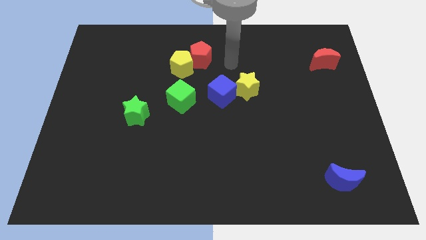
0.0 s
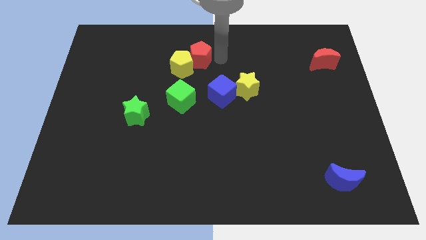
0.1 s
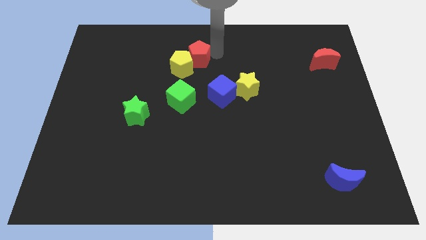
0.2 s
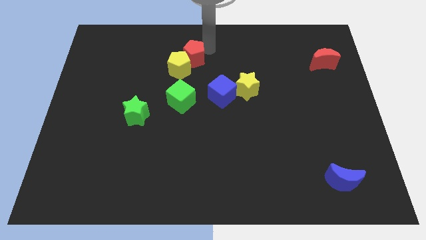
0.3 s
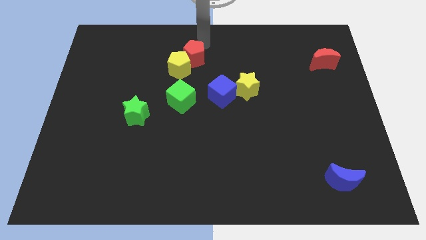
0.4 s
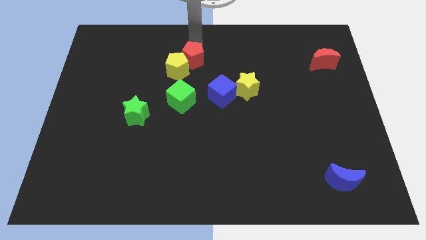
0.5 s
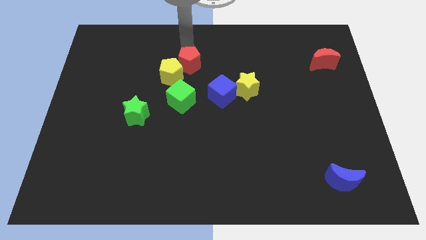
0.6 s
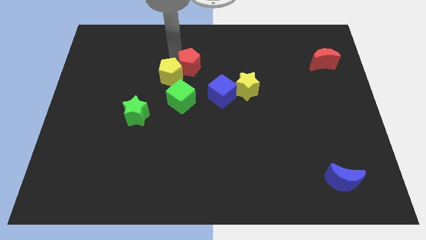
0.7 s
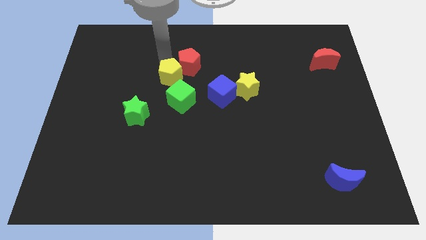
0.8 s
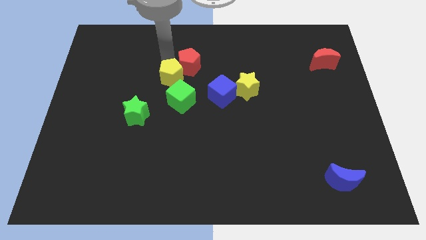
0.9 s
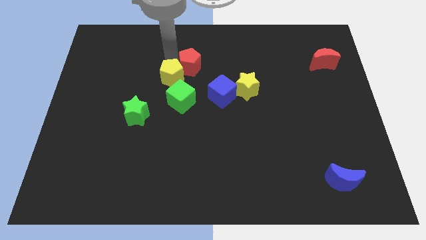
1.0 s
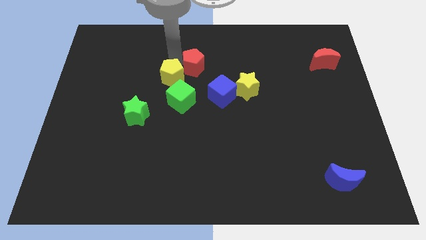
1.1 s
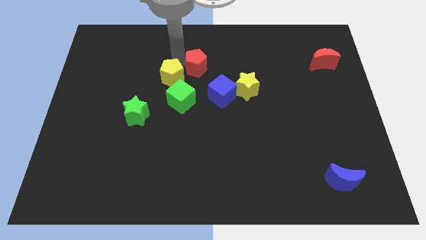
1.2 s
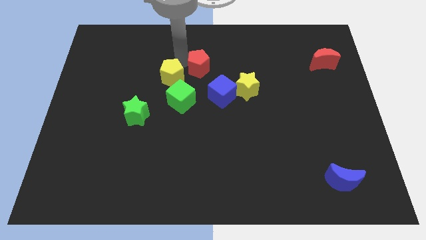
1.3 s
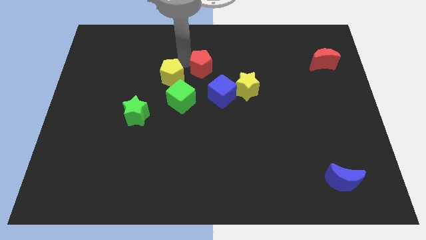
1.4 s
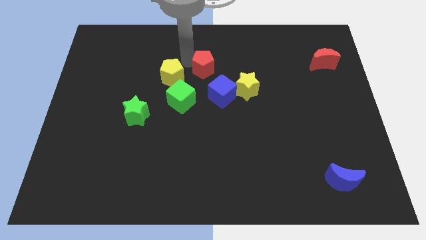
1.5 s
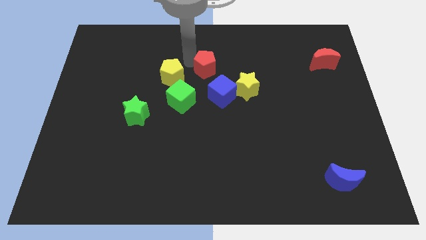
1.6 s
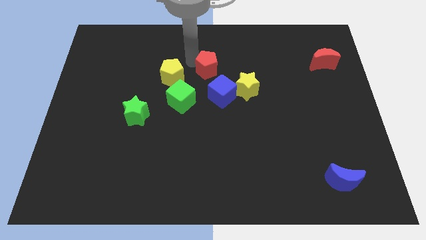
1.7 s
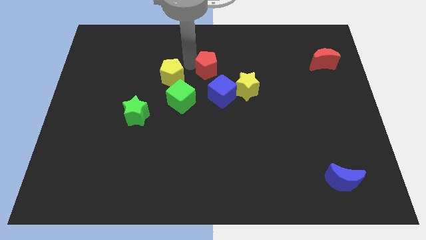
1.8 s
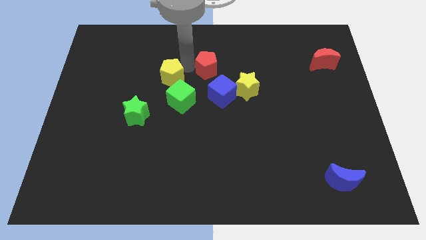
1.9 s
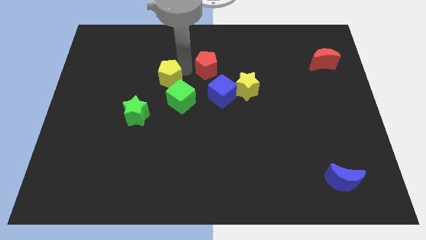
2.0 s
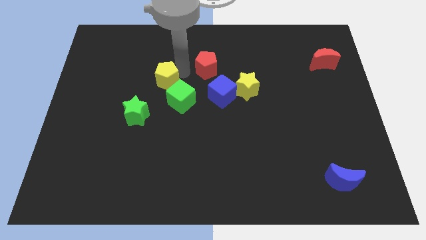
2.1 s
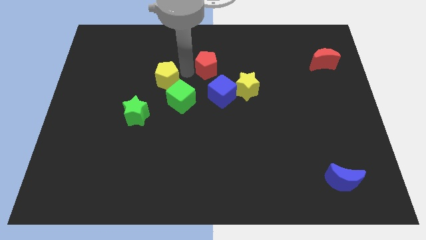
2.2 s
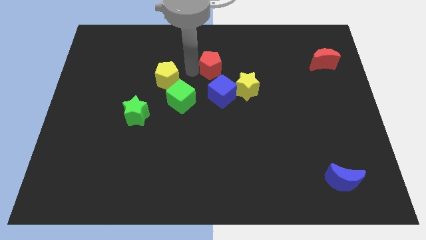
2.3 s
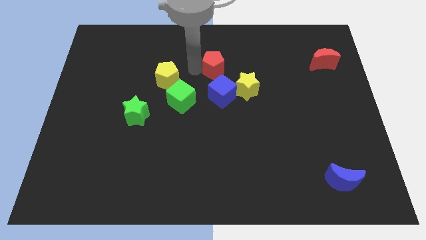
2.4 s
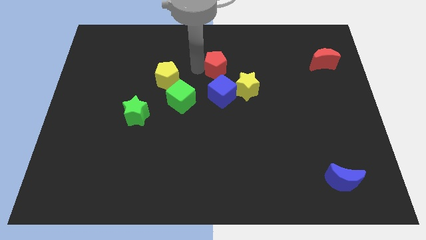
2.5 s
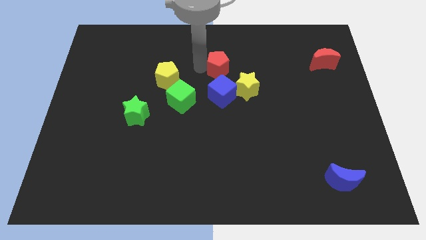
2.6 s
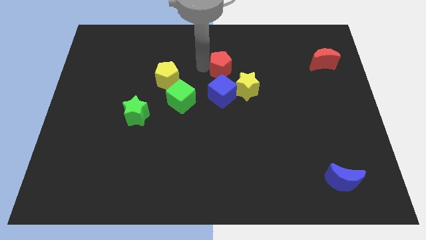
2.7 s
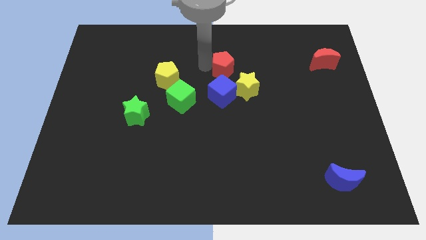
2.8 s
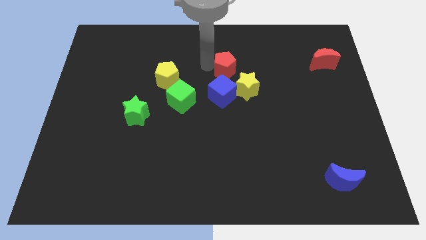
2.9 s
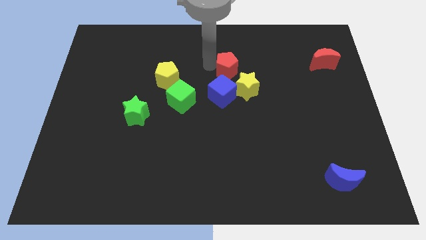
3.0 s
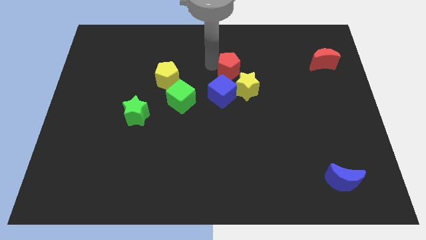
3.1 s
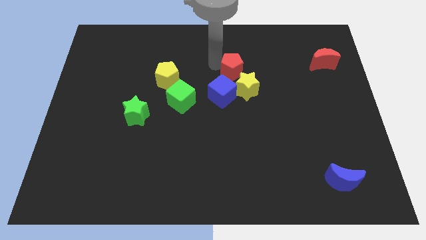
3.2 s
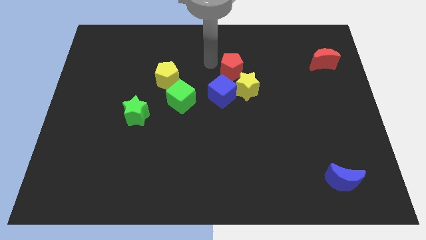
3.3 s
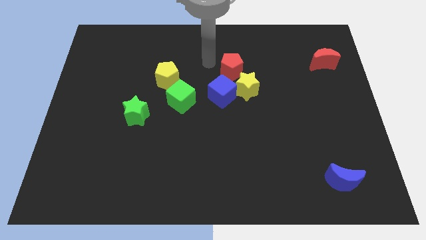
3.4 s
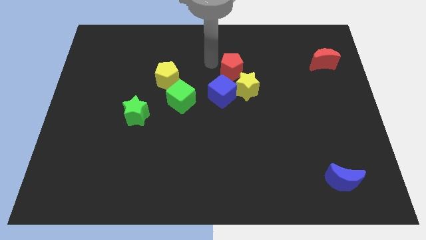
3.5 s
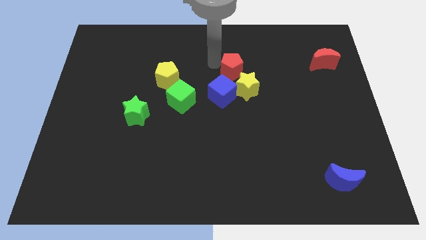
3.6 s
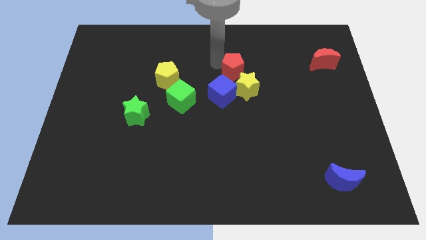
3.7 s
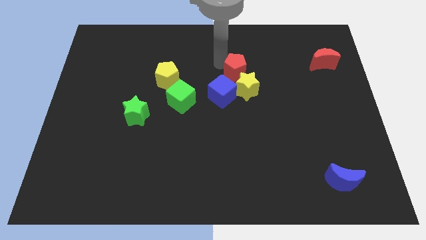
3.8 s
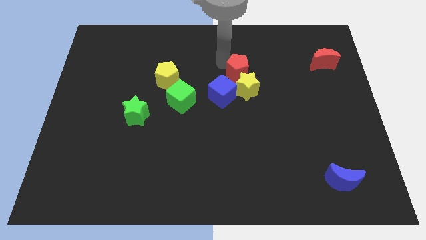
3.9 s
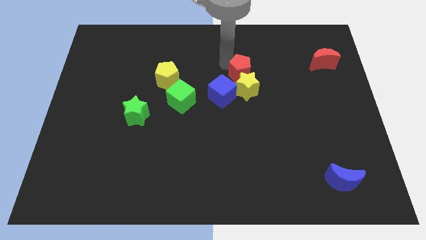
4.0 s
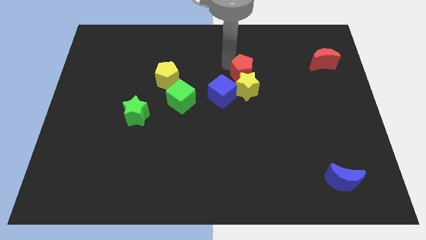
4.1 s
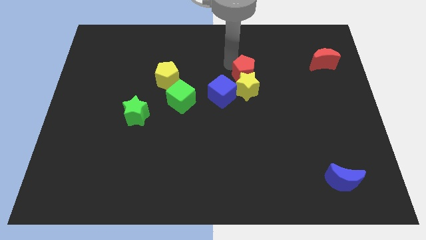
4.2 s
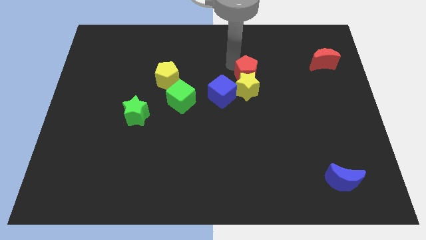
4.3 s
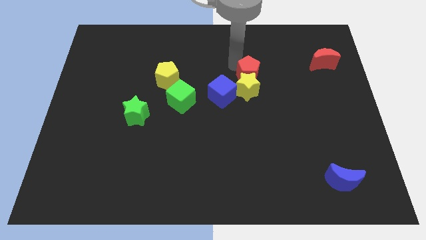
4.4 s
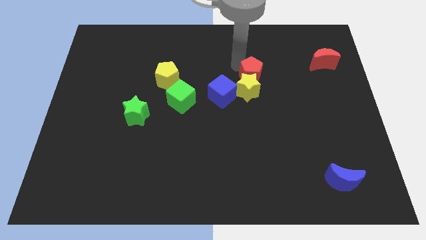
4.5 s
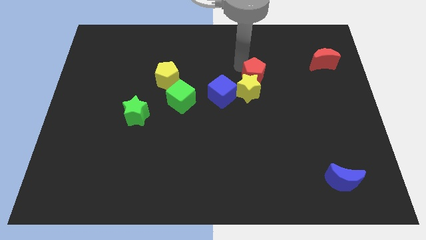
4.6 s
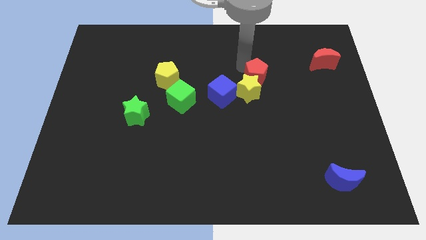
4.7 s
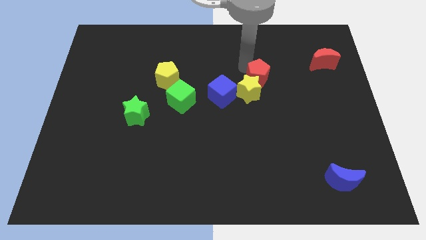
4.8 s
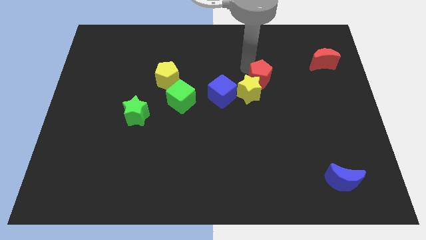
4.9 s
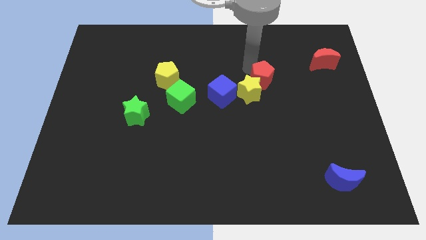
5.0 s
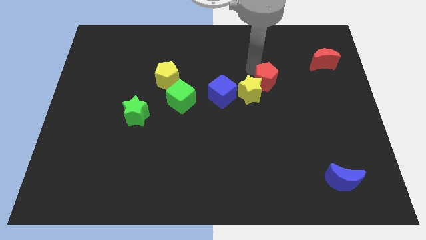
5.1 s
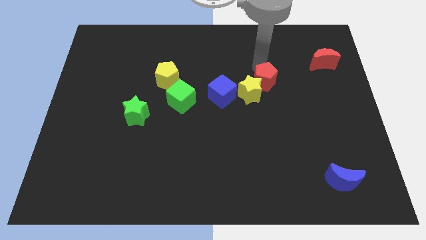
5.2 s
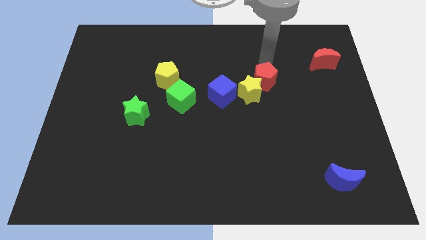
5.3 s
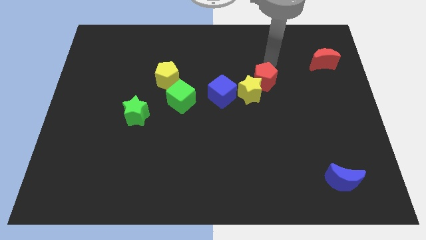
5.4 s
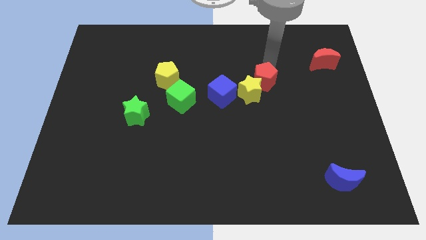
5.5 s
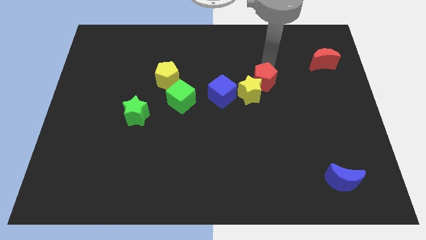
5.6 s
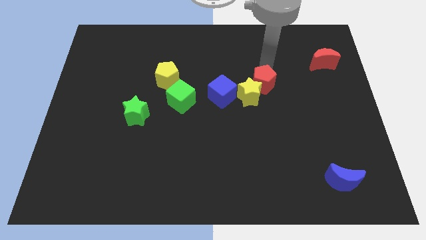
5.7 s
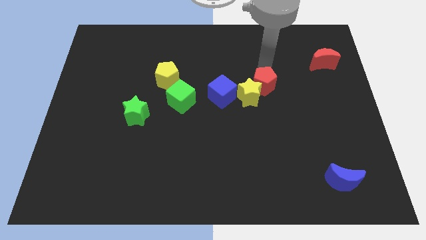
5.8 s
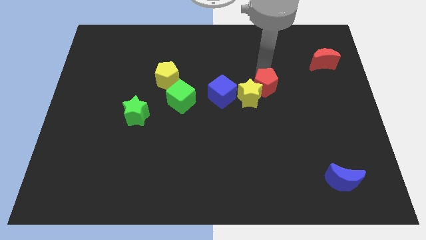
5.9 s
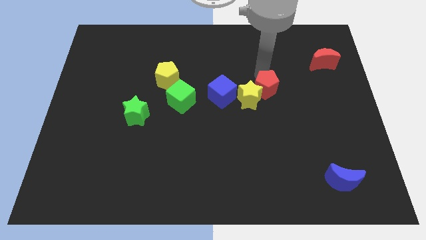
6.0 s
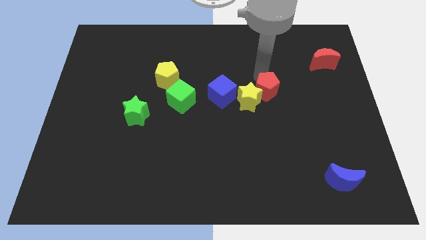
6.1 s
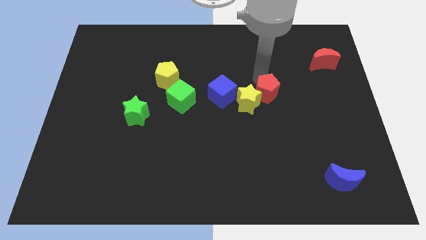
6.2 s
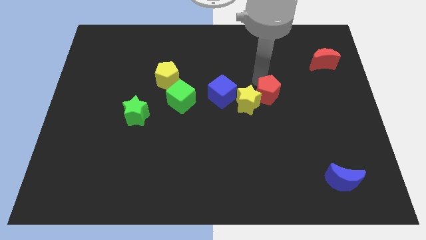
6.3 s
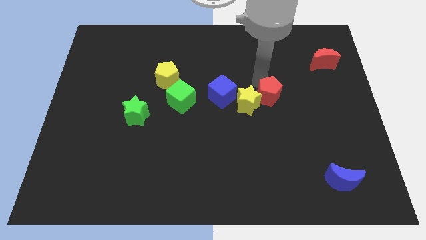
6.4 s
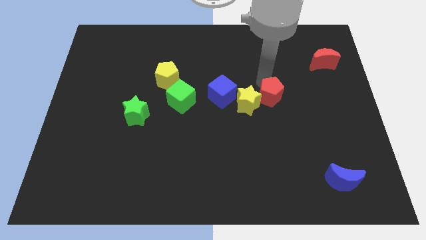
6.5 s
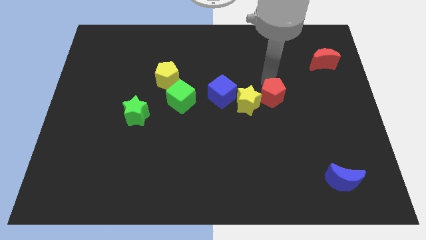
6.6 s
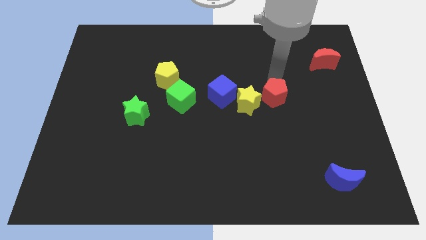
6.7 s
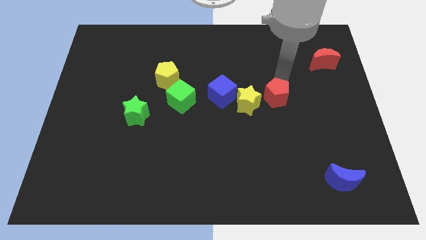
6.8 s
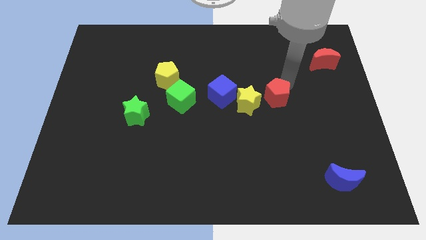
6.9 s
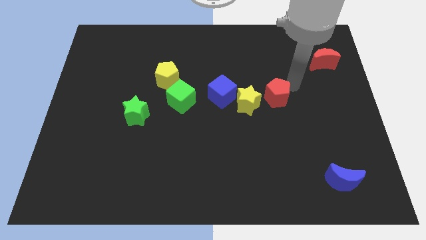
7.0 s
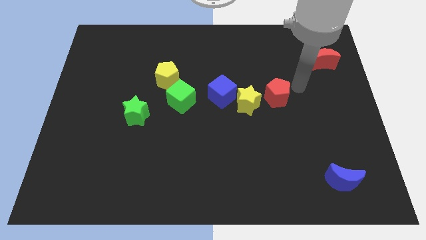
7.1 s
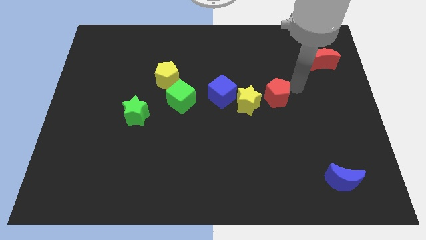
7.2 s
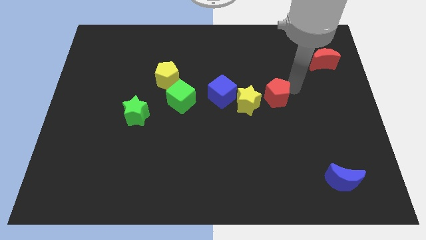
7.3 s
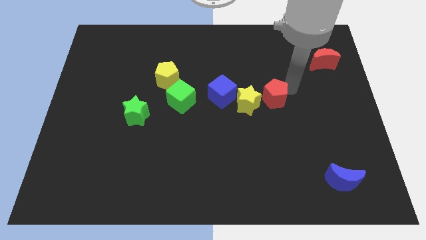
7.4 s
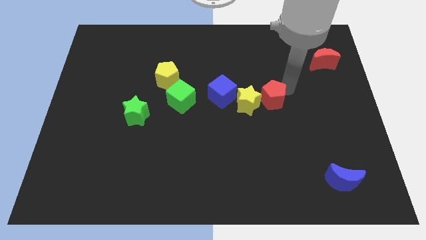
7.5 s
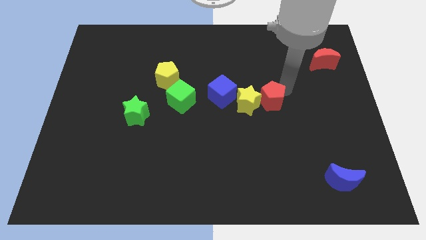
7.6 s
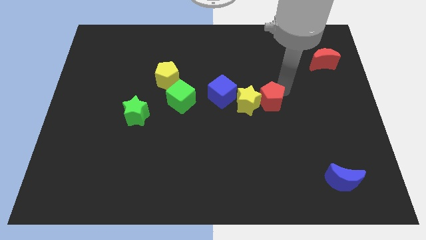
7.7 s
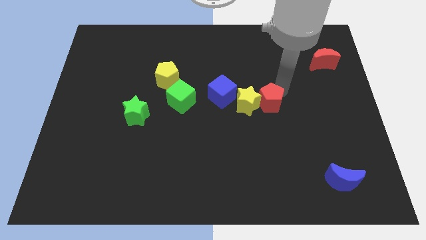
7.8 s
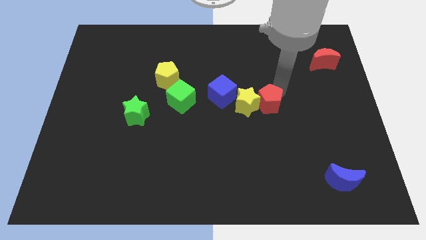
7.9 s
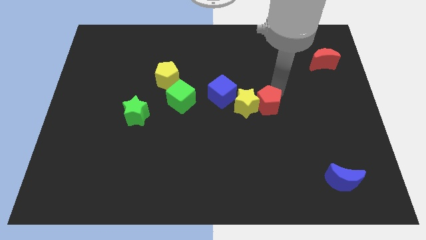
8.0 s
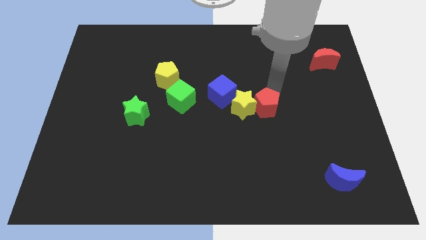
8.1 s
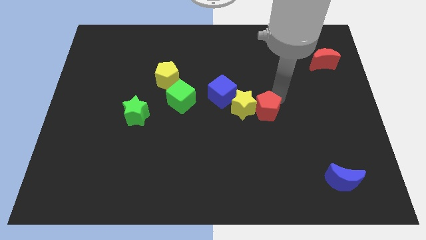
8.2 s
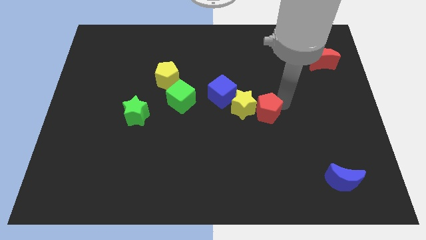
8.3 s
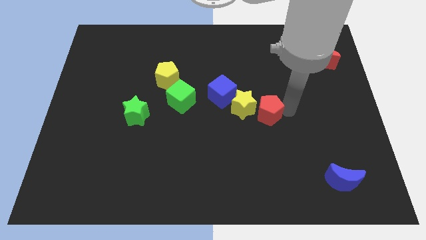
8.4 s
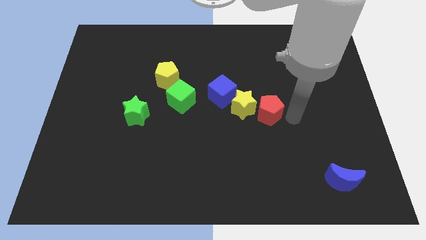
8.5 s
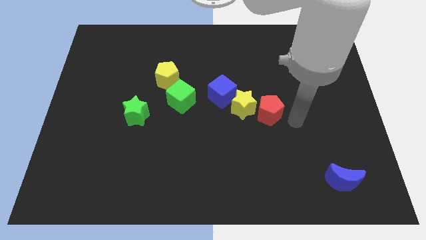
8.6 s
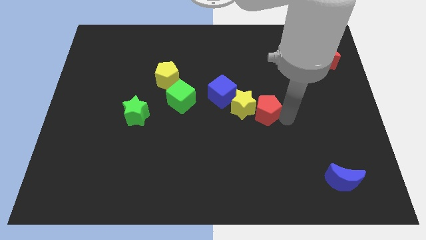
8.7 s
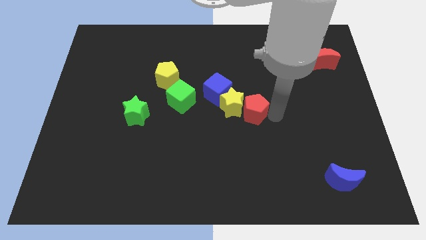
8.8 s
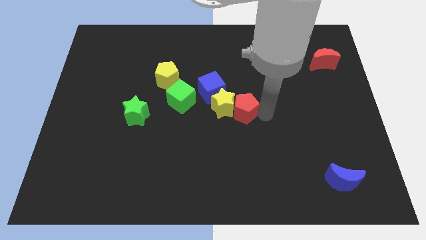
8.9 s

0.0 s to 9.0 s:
move the red pentagon to the right side of the green cube
